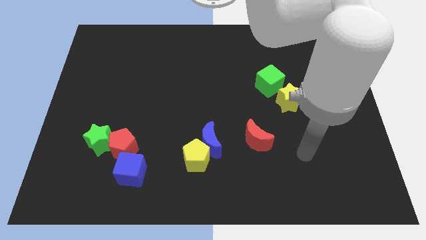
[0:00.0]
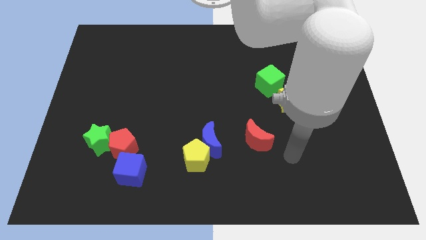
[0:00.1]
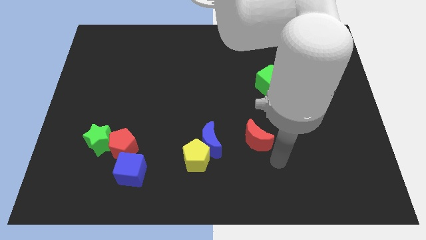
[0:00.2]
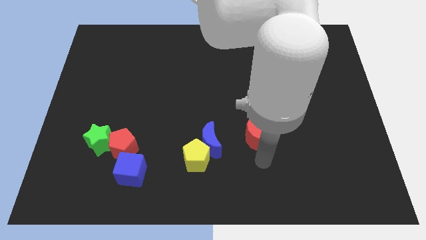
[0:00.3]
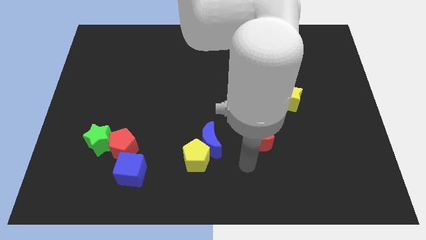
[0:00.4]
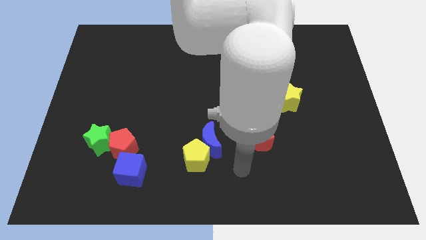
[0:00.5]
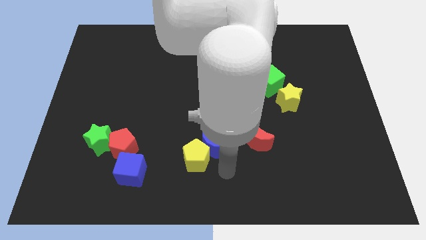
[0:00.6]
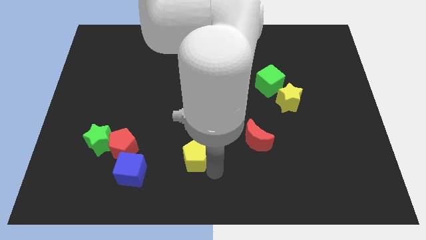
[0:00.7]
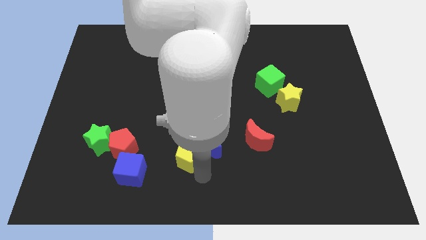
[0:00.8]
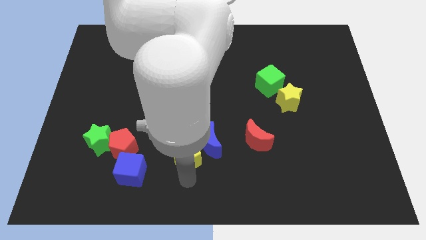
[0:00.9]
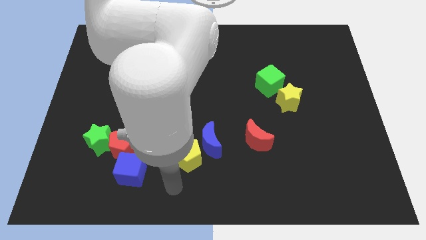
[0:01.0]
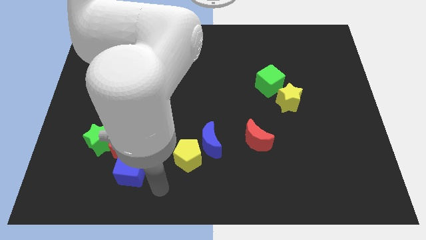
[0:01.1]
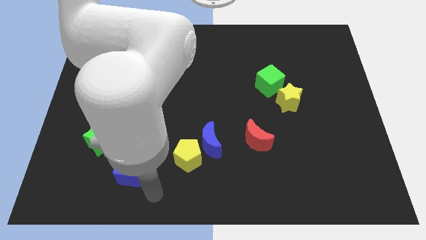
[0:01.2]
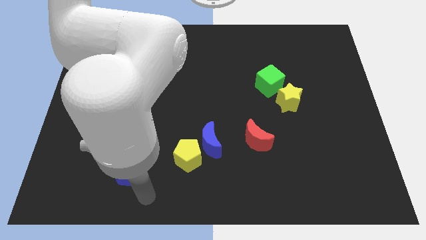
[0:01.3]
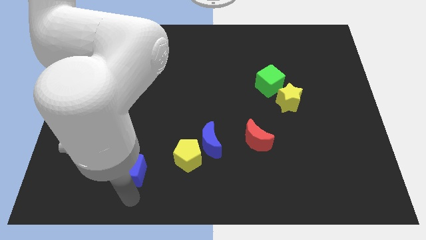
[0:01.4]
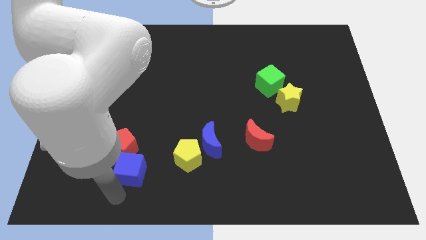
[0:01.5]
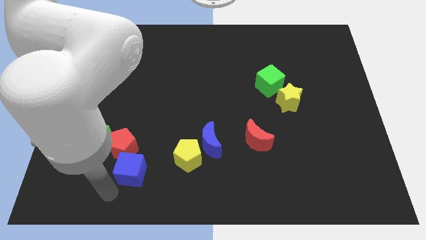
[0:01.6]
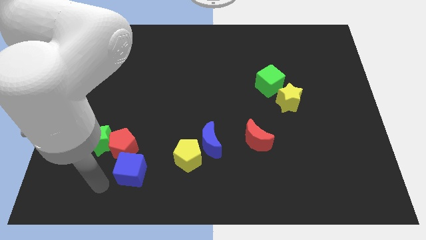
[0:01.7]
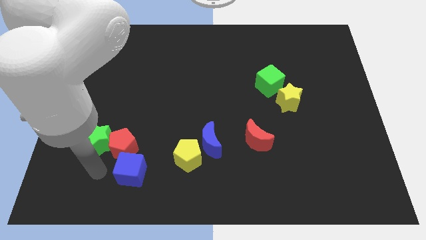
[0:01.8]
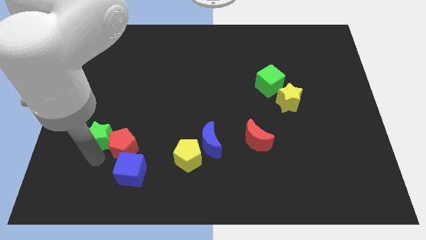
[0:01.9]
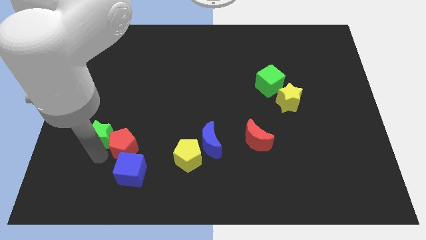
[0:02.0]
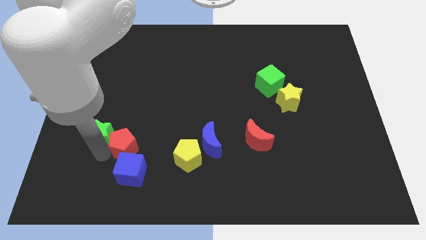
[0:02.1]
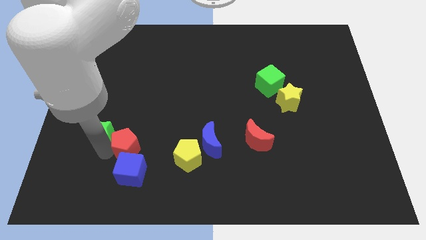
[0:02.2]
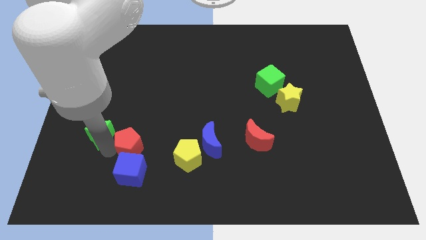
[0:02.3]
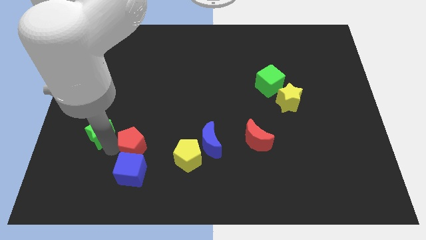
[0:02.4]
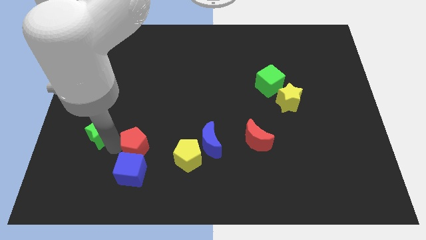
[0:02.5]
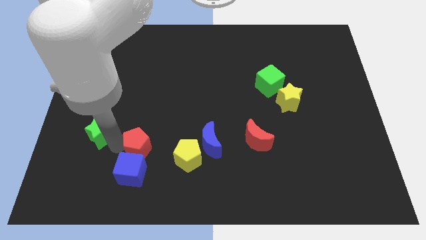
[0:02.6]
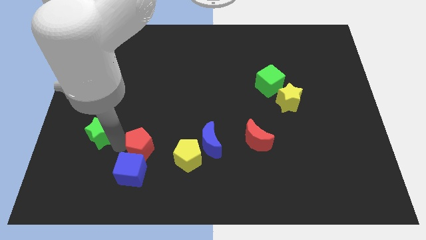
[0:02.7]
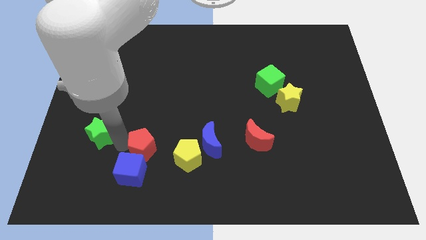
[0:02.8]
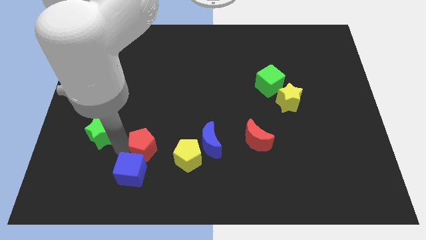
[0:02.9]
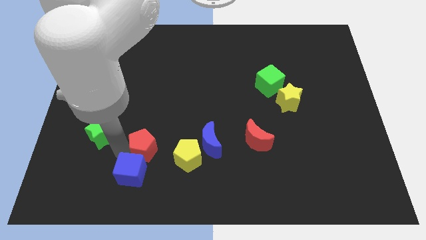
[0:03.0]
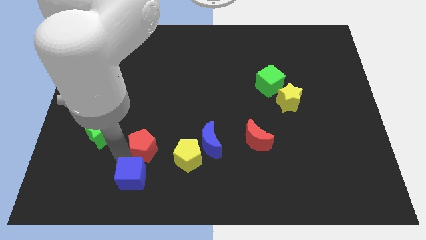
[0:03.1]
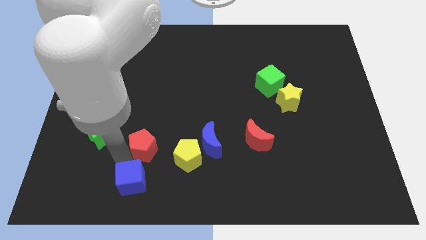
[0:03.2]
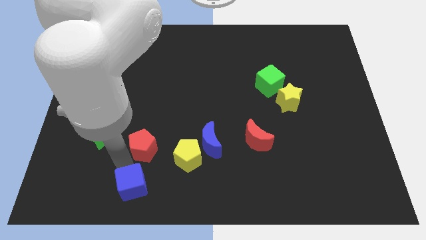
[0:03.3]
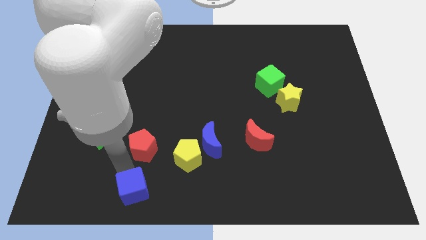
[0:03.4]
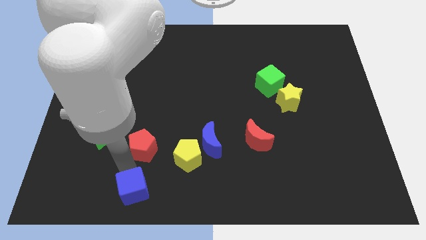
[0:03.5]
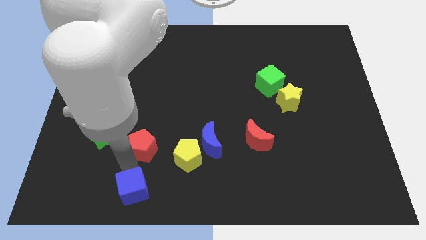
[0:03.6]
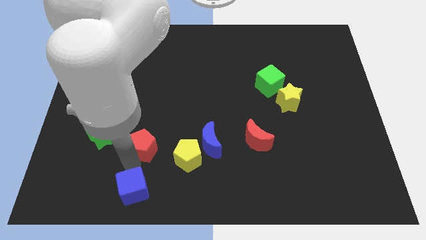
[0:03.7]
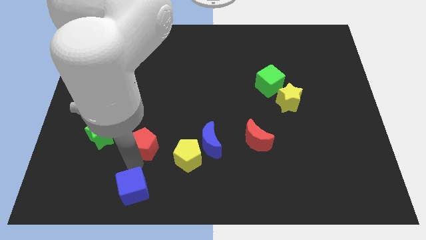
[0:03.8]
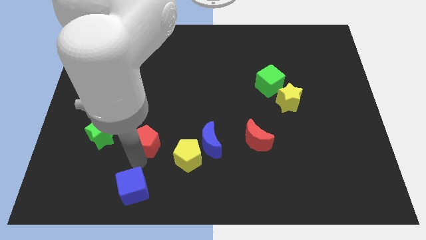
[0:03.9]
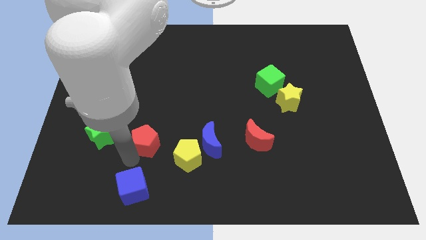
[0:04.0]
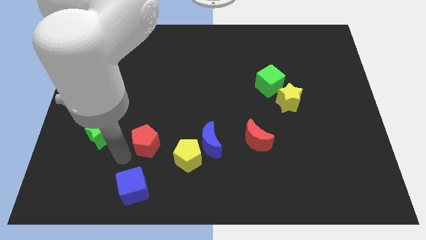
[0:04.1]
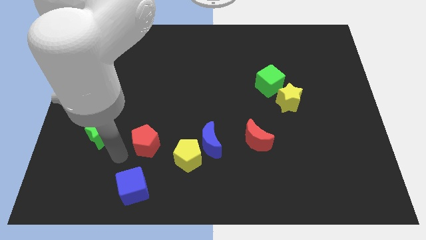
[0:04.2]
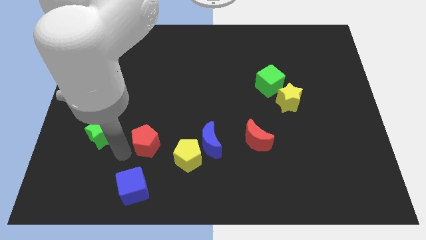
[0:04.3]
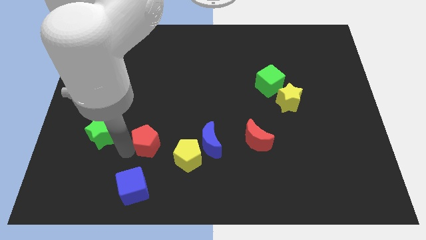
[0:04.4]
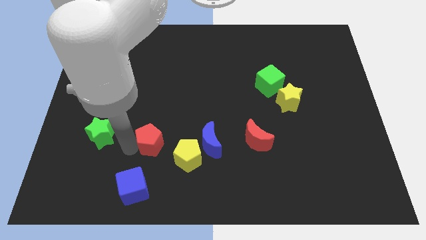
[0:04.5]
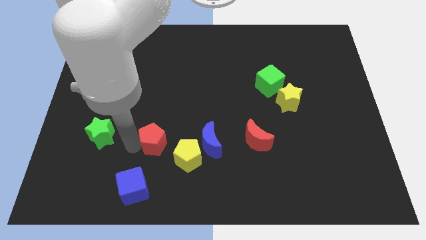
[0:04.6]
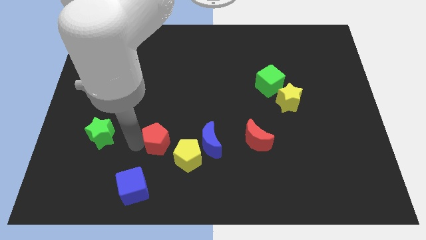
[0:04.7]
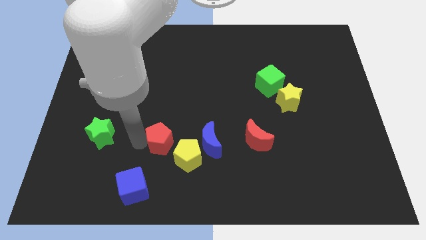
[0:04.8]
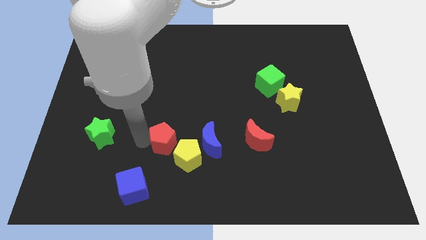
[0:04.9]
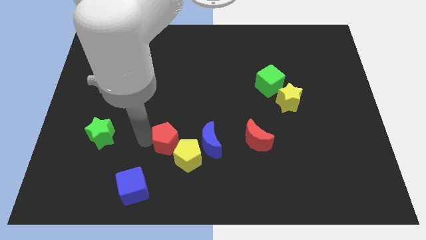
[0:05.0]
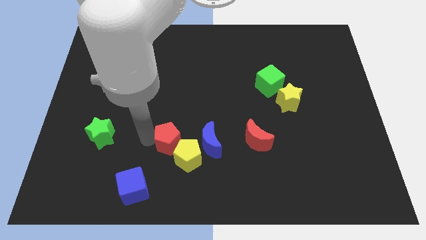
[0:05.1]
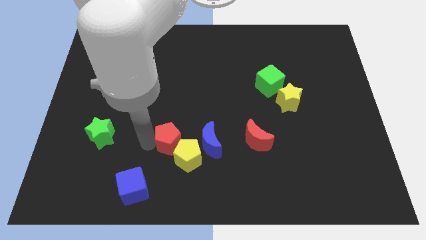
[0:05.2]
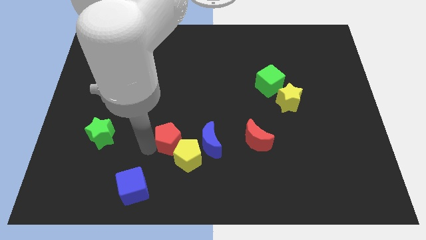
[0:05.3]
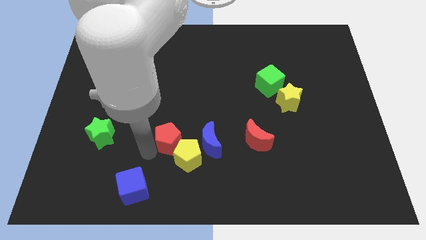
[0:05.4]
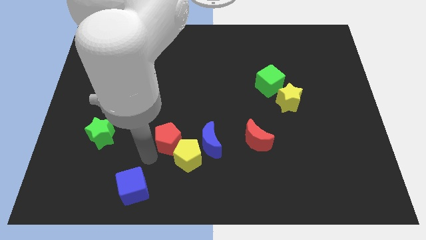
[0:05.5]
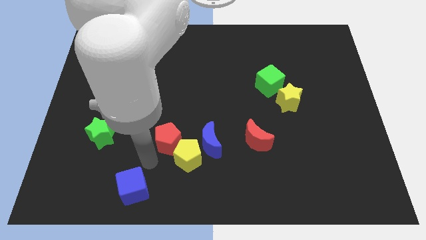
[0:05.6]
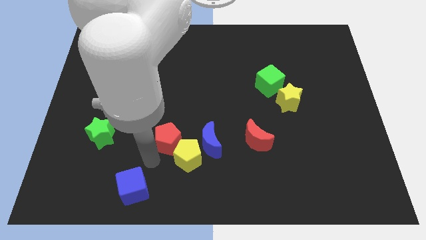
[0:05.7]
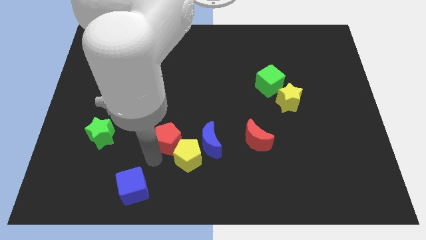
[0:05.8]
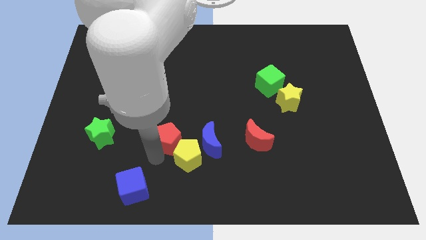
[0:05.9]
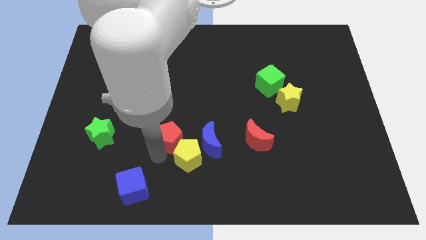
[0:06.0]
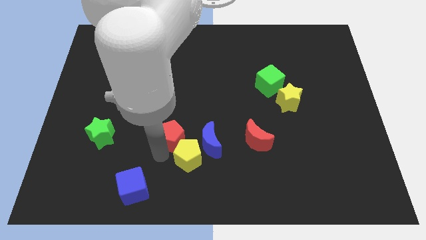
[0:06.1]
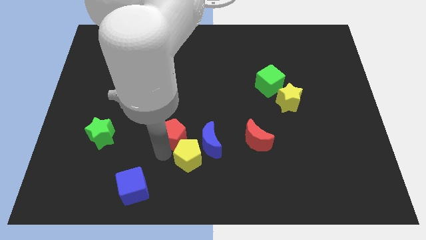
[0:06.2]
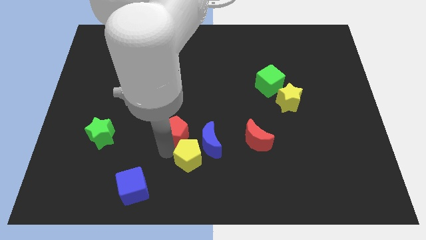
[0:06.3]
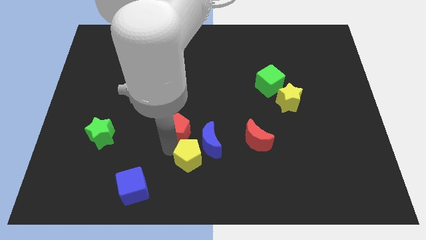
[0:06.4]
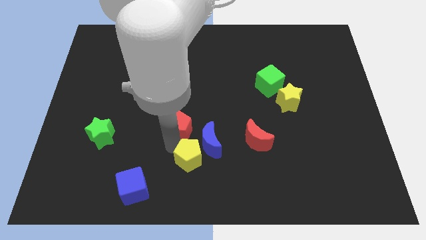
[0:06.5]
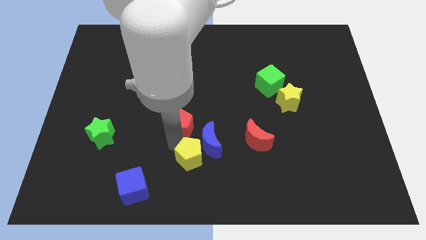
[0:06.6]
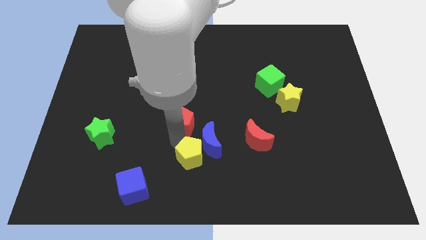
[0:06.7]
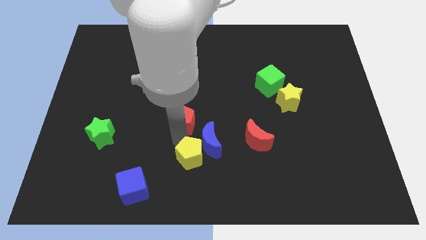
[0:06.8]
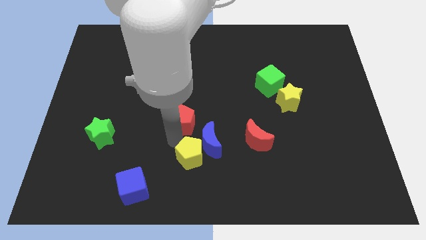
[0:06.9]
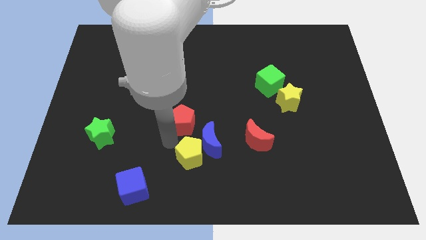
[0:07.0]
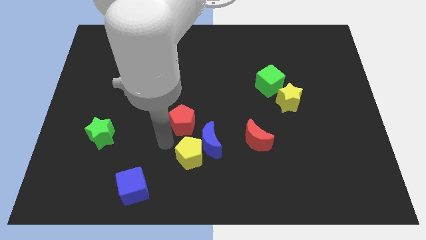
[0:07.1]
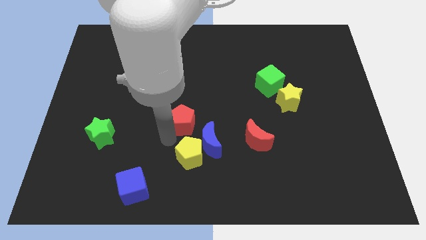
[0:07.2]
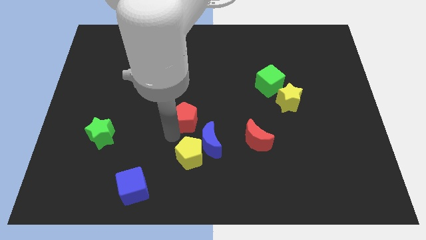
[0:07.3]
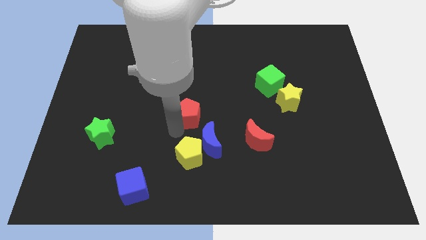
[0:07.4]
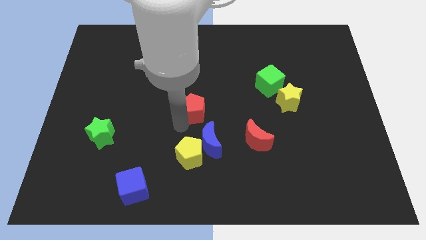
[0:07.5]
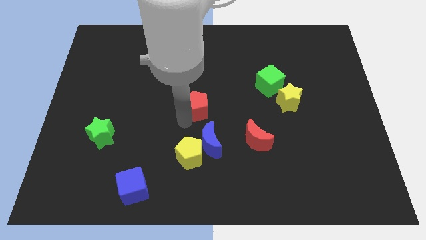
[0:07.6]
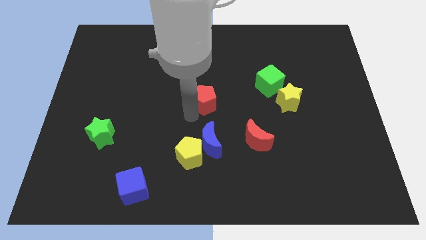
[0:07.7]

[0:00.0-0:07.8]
move the red pentagon up and then to the right

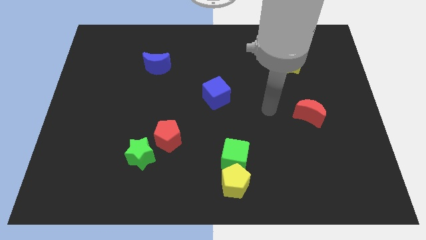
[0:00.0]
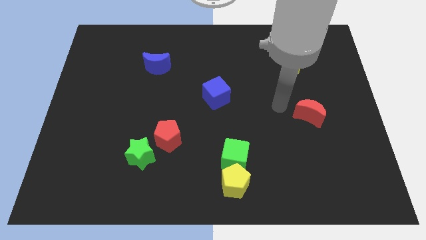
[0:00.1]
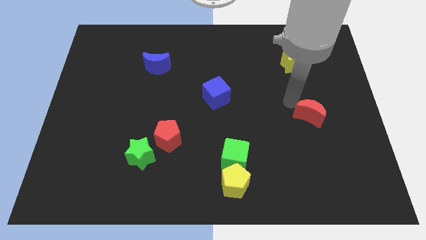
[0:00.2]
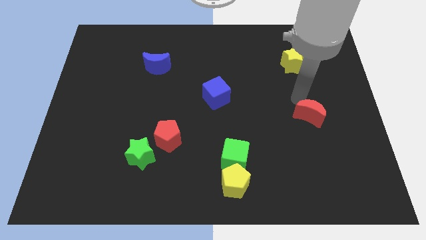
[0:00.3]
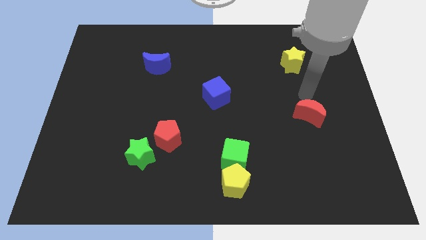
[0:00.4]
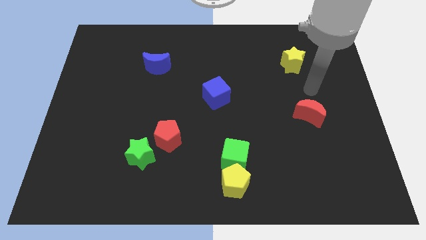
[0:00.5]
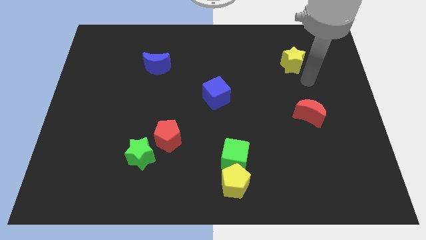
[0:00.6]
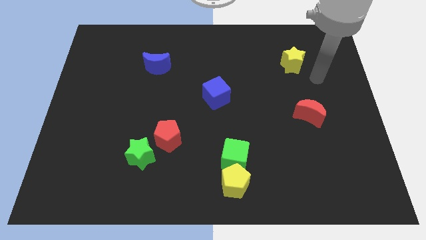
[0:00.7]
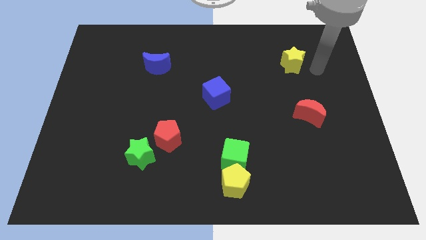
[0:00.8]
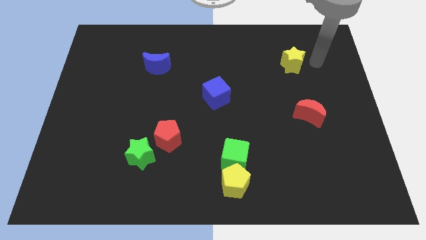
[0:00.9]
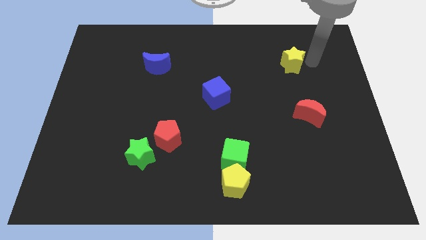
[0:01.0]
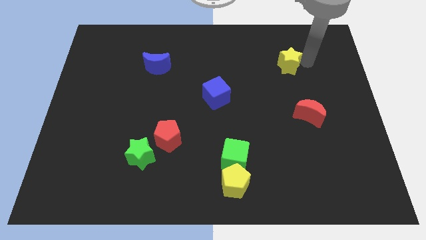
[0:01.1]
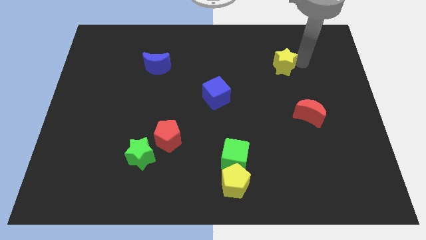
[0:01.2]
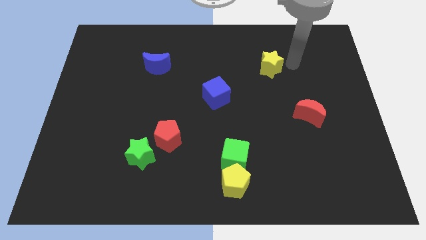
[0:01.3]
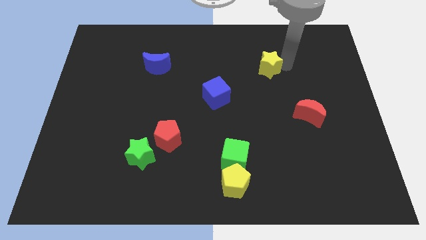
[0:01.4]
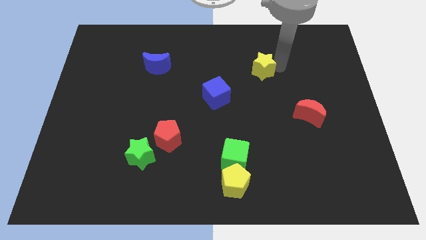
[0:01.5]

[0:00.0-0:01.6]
move the yellow star left a bit
